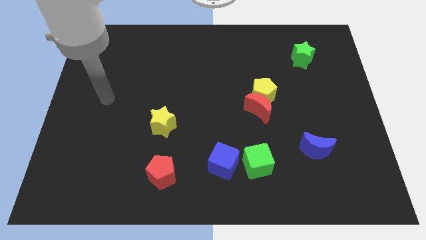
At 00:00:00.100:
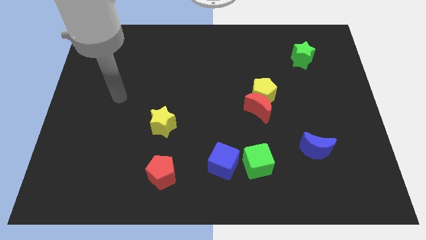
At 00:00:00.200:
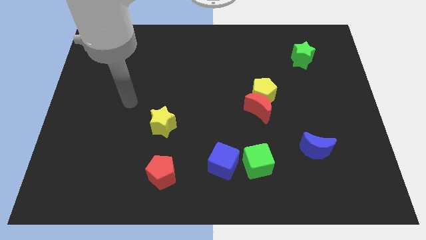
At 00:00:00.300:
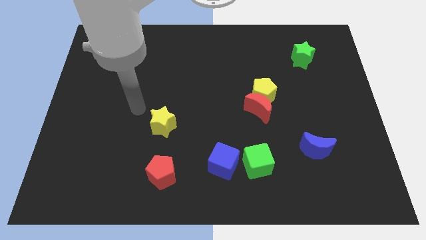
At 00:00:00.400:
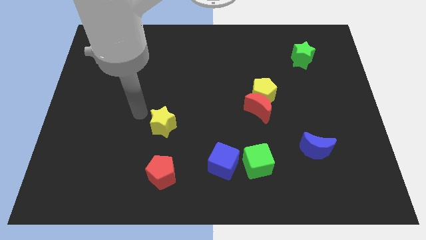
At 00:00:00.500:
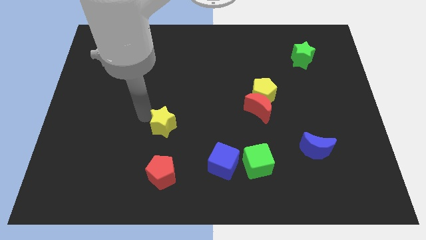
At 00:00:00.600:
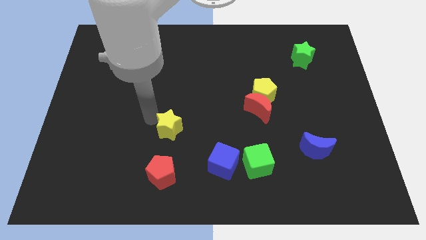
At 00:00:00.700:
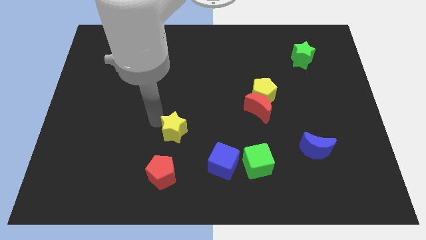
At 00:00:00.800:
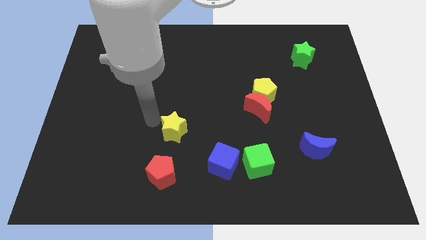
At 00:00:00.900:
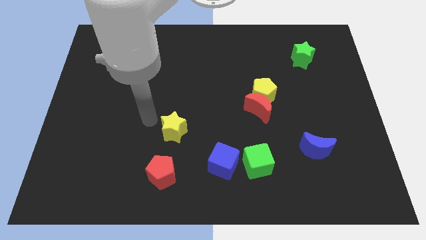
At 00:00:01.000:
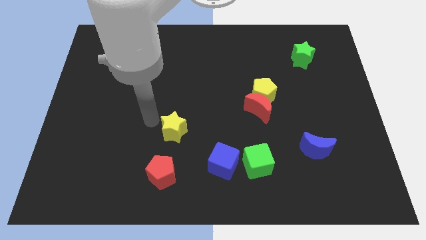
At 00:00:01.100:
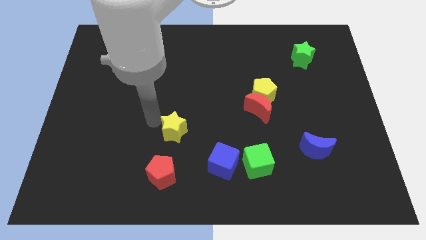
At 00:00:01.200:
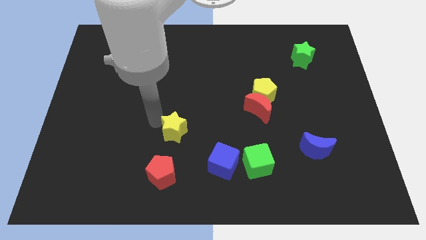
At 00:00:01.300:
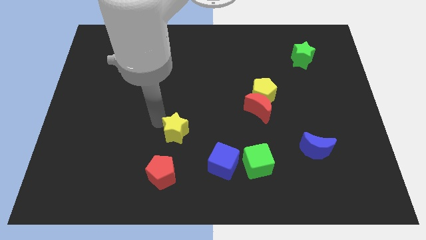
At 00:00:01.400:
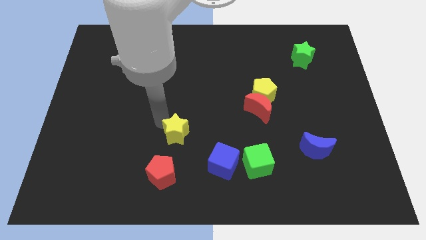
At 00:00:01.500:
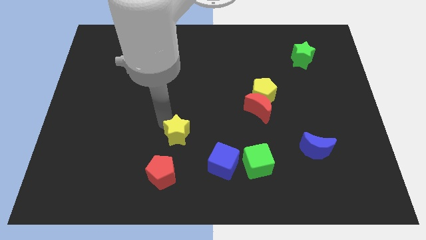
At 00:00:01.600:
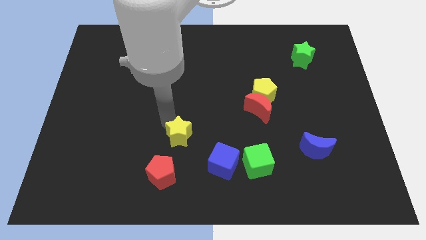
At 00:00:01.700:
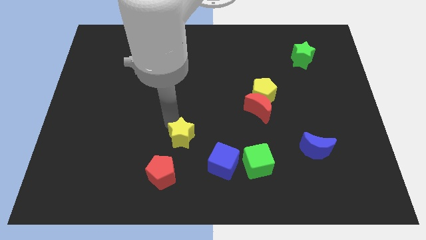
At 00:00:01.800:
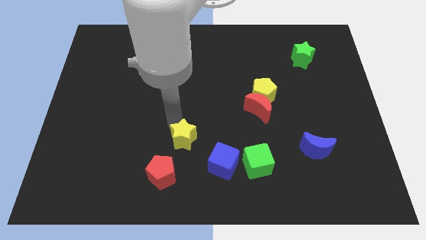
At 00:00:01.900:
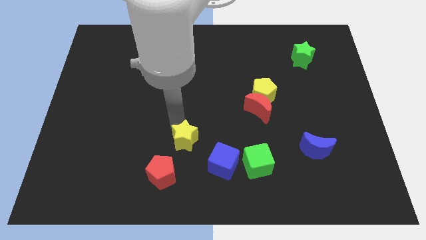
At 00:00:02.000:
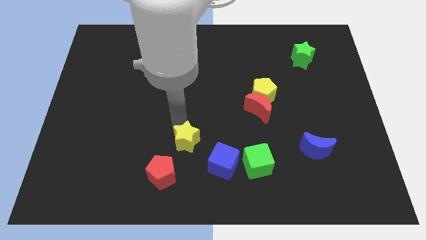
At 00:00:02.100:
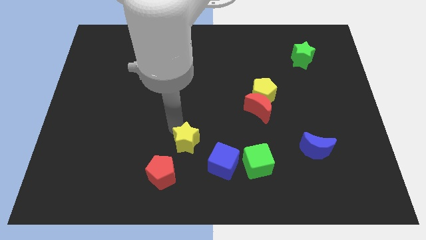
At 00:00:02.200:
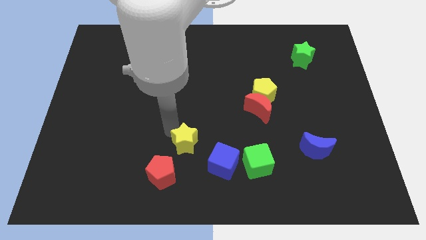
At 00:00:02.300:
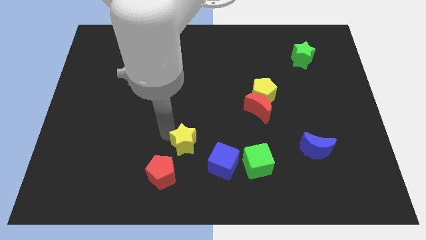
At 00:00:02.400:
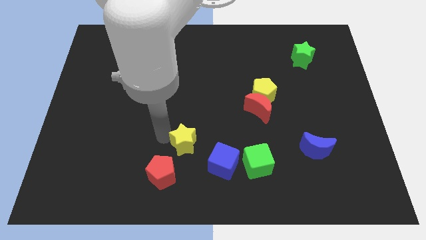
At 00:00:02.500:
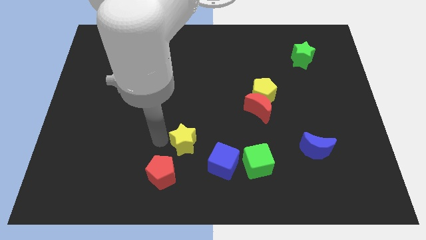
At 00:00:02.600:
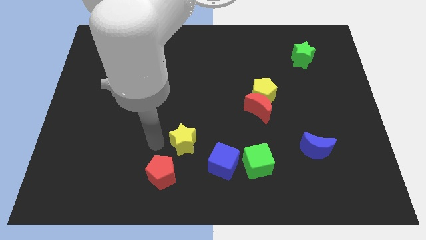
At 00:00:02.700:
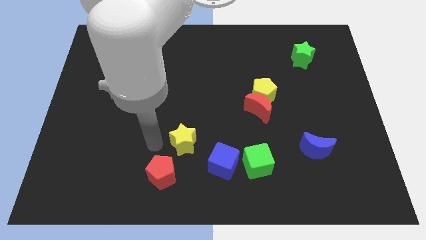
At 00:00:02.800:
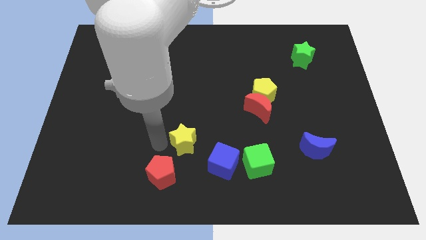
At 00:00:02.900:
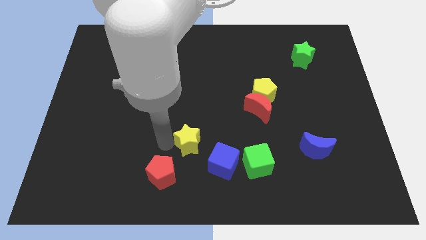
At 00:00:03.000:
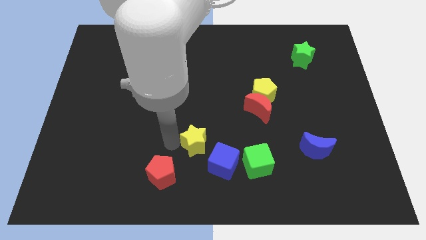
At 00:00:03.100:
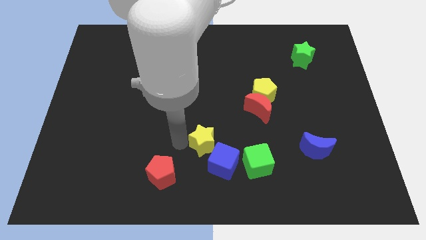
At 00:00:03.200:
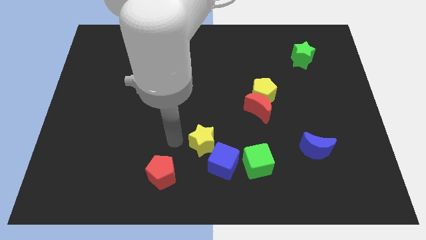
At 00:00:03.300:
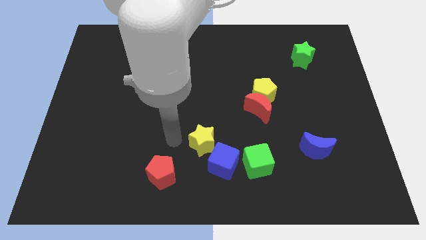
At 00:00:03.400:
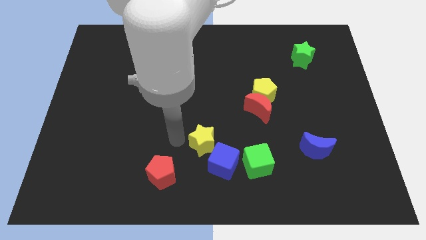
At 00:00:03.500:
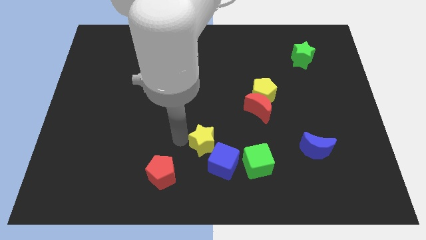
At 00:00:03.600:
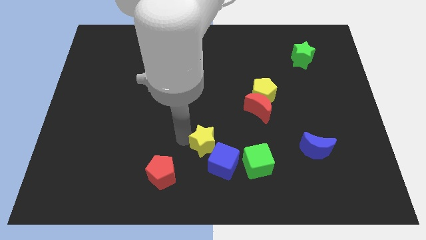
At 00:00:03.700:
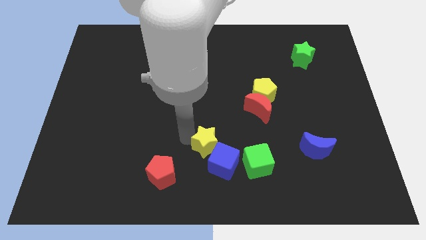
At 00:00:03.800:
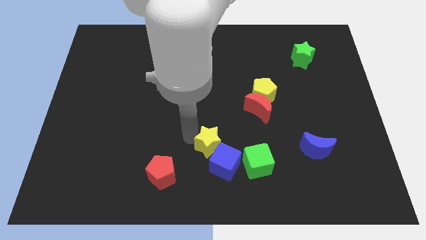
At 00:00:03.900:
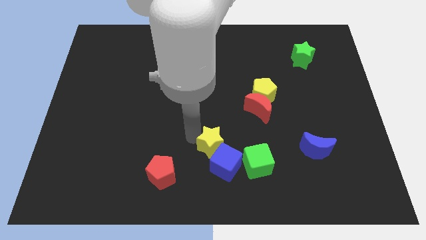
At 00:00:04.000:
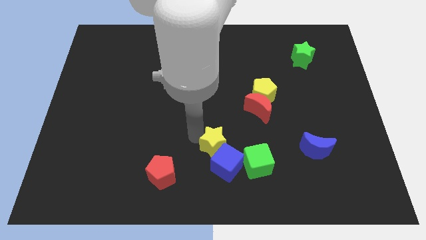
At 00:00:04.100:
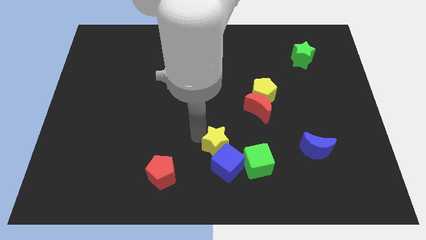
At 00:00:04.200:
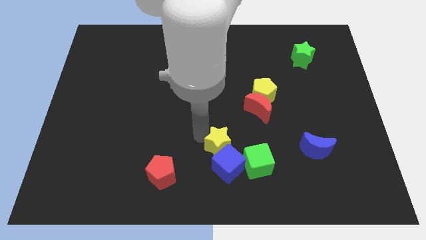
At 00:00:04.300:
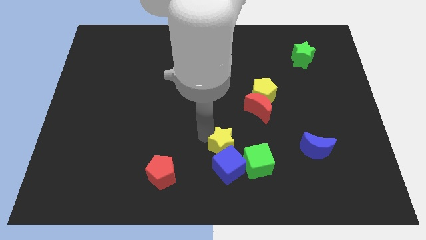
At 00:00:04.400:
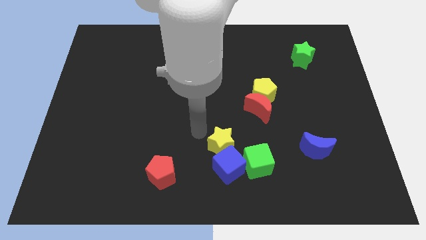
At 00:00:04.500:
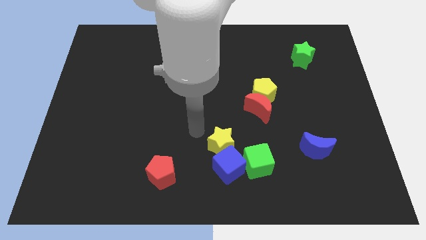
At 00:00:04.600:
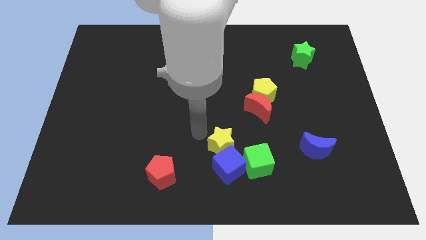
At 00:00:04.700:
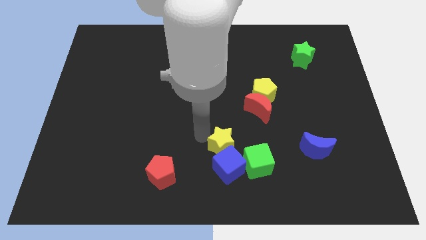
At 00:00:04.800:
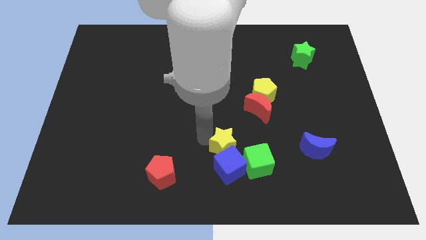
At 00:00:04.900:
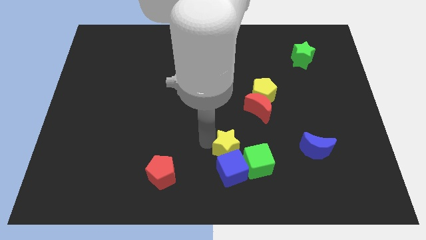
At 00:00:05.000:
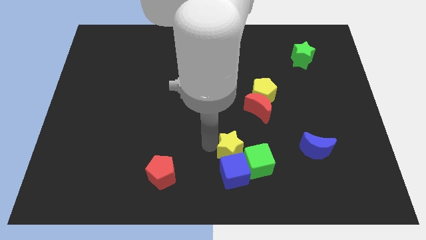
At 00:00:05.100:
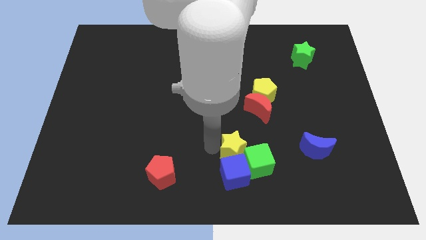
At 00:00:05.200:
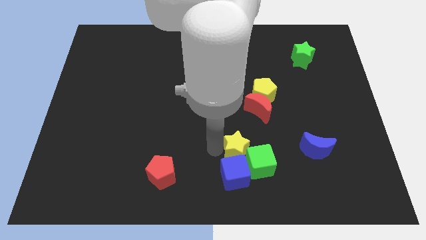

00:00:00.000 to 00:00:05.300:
put the yellow star towards the green cube

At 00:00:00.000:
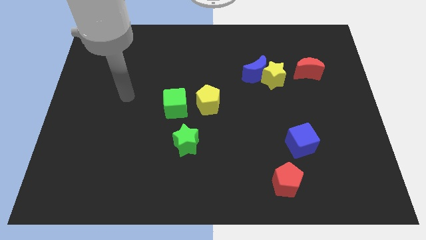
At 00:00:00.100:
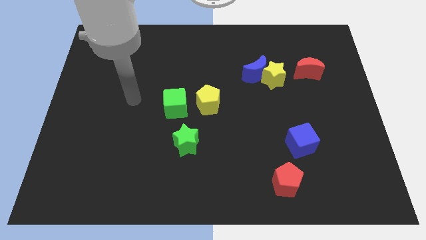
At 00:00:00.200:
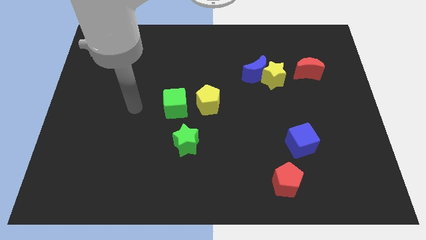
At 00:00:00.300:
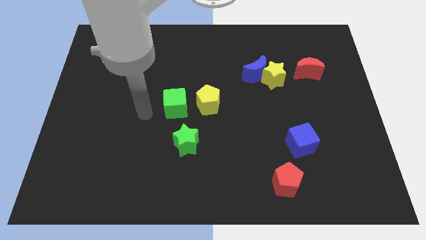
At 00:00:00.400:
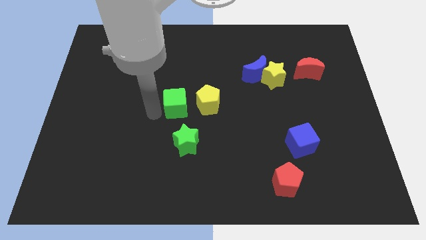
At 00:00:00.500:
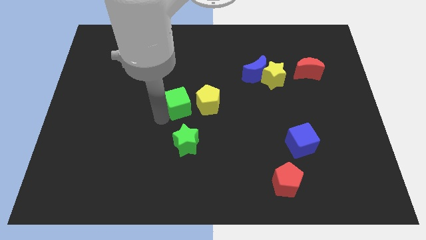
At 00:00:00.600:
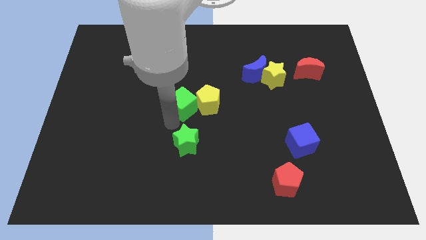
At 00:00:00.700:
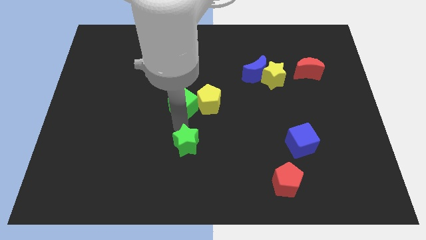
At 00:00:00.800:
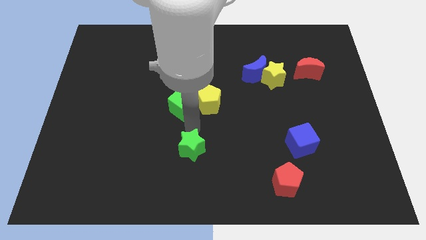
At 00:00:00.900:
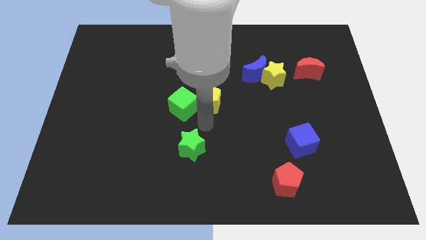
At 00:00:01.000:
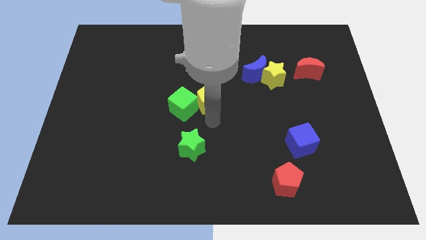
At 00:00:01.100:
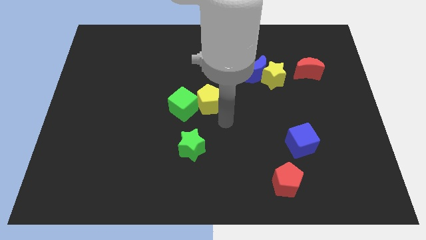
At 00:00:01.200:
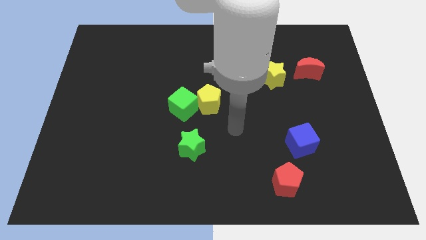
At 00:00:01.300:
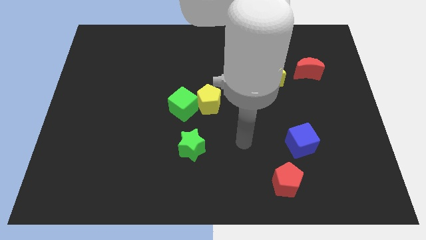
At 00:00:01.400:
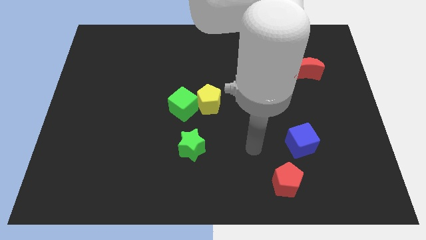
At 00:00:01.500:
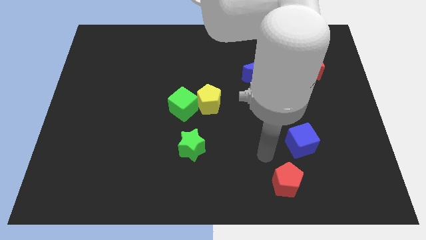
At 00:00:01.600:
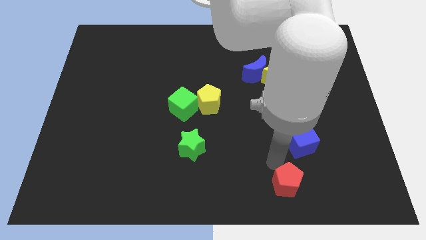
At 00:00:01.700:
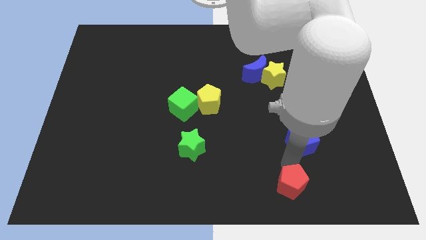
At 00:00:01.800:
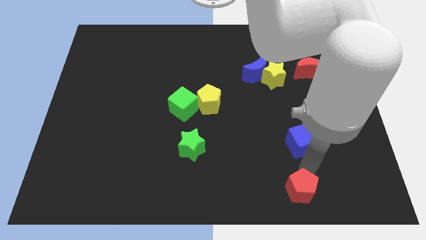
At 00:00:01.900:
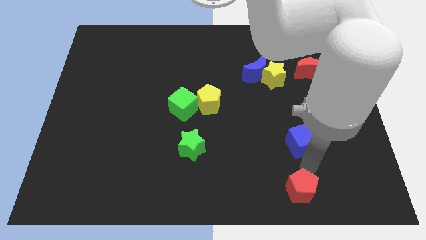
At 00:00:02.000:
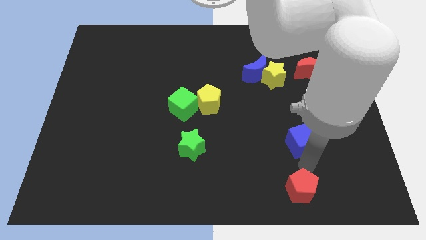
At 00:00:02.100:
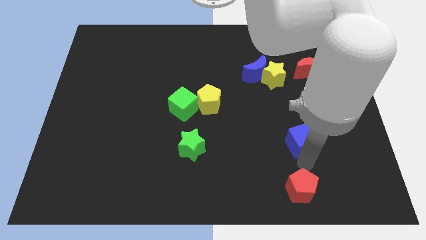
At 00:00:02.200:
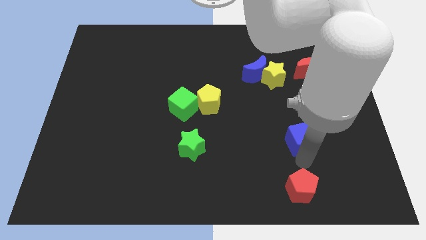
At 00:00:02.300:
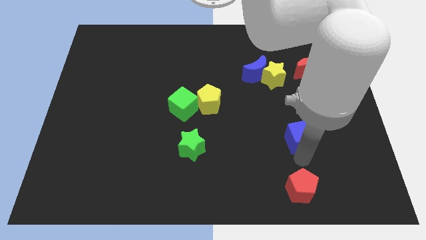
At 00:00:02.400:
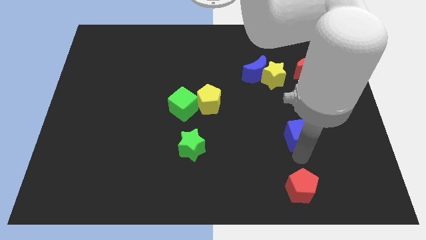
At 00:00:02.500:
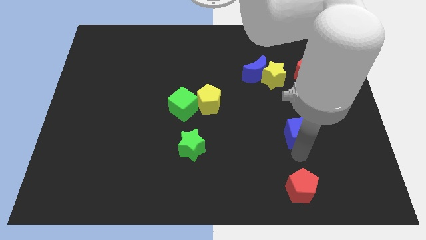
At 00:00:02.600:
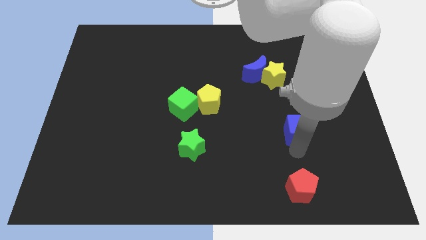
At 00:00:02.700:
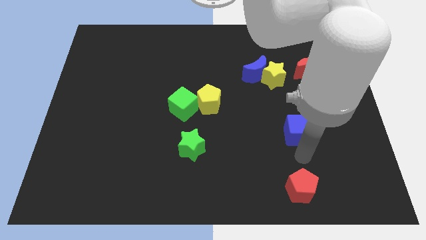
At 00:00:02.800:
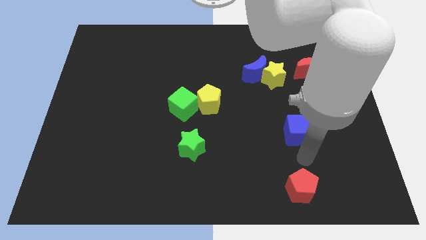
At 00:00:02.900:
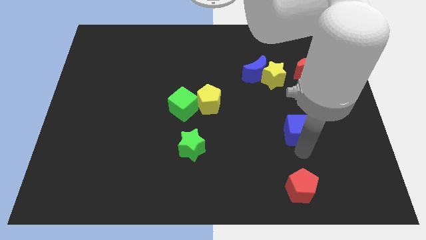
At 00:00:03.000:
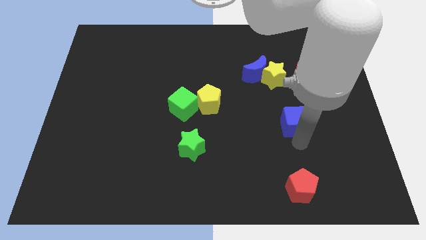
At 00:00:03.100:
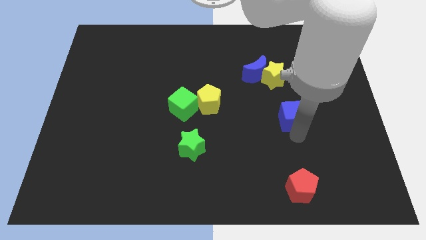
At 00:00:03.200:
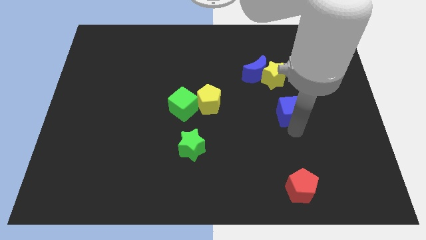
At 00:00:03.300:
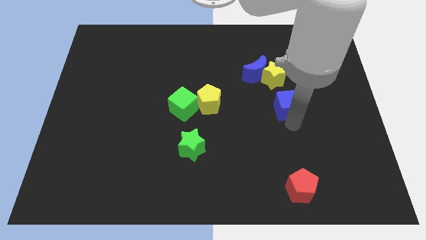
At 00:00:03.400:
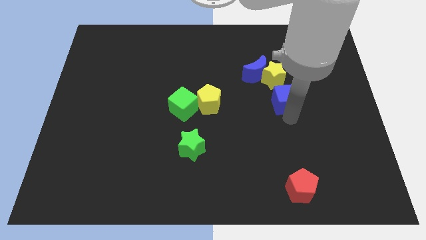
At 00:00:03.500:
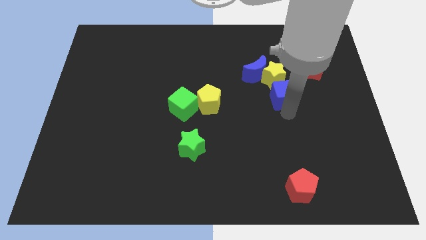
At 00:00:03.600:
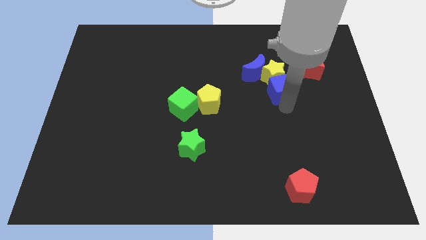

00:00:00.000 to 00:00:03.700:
slide the blue cube to the yellow star
